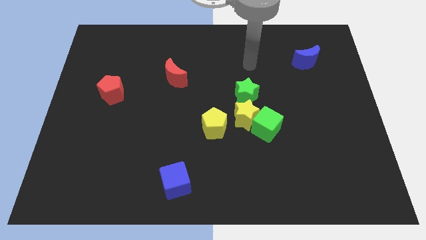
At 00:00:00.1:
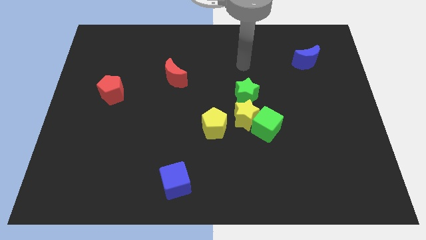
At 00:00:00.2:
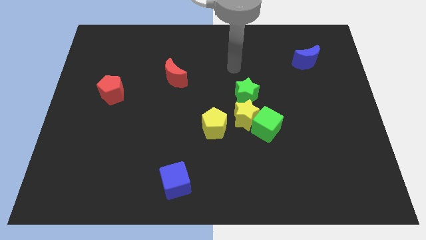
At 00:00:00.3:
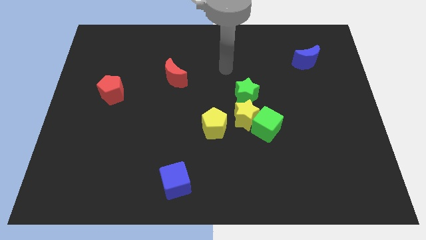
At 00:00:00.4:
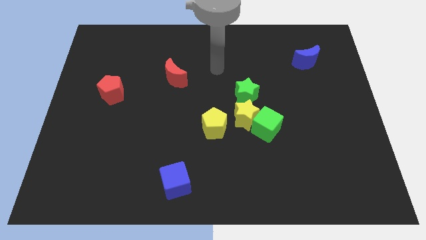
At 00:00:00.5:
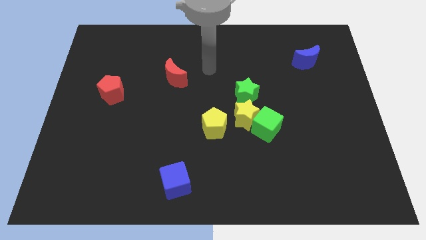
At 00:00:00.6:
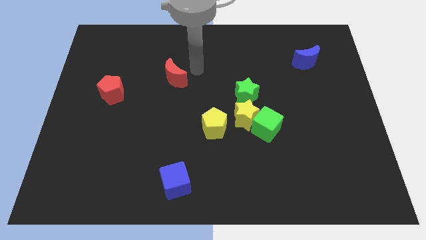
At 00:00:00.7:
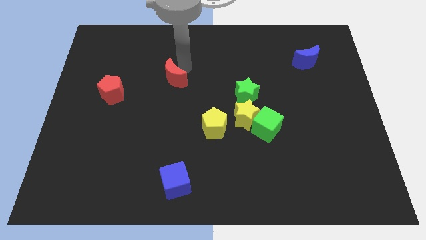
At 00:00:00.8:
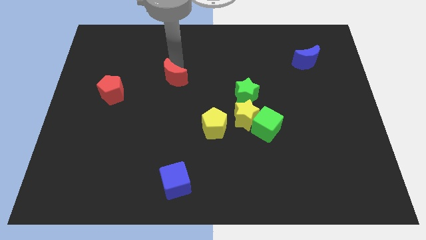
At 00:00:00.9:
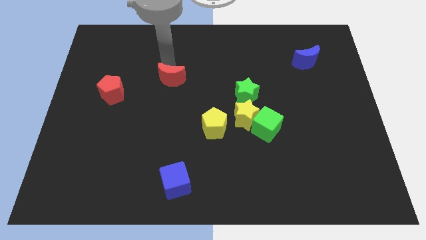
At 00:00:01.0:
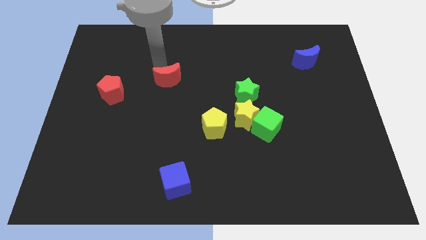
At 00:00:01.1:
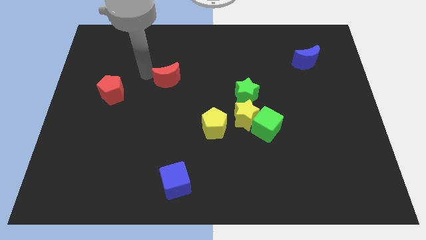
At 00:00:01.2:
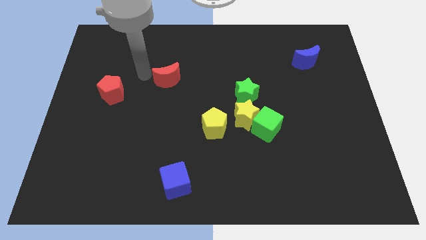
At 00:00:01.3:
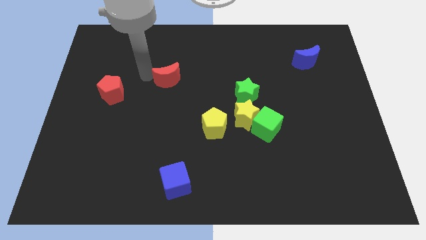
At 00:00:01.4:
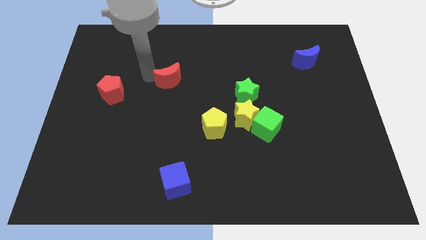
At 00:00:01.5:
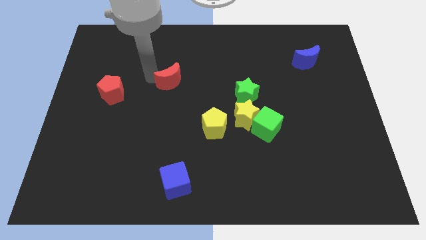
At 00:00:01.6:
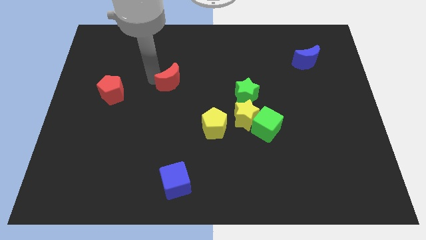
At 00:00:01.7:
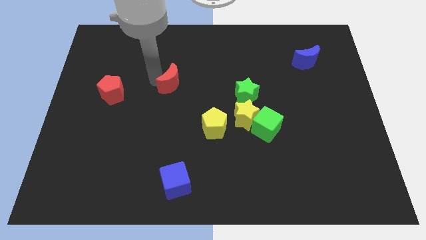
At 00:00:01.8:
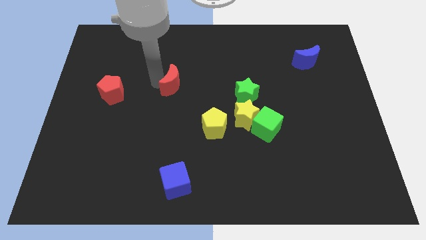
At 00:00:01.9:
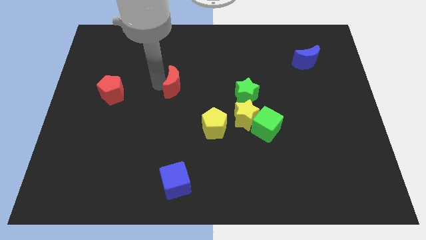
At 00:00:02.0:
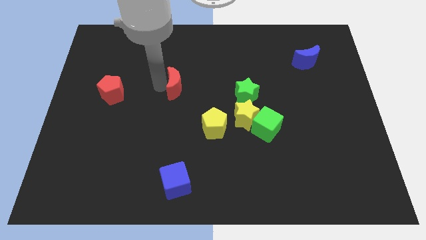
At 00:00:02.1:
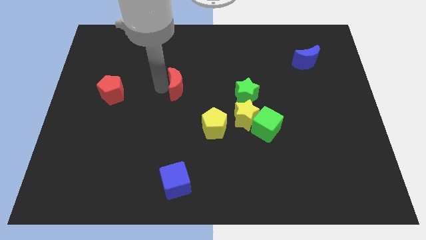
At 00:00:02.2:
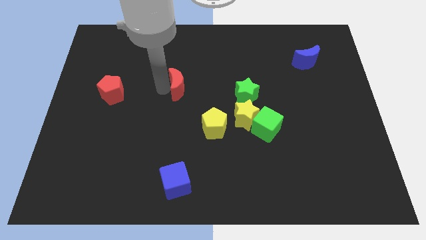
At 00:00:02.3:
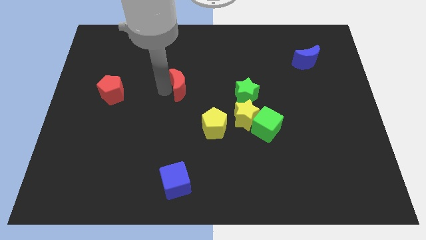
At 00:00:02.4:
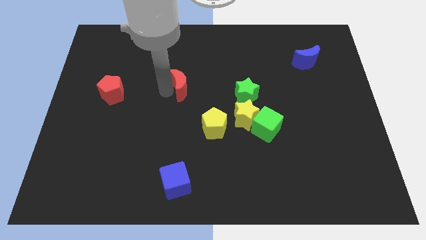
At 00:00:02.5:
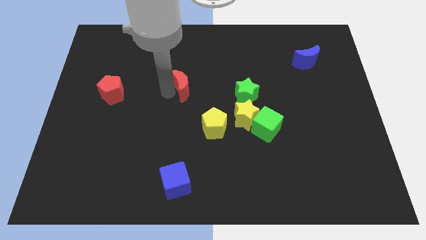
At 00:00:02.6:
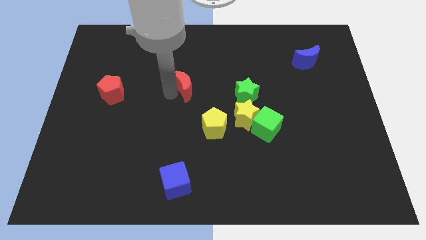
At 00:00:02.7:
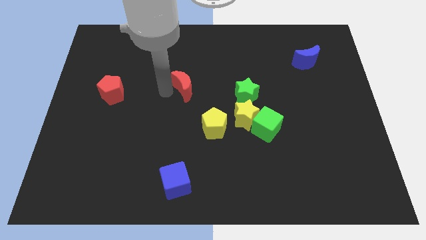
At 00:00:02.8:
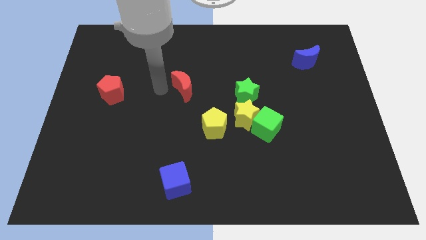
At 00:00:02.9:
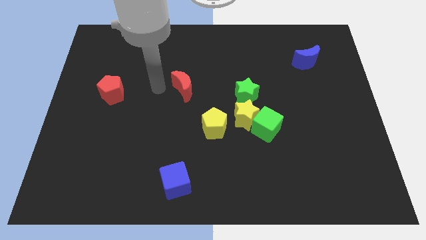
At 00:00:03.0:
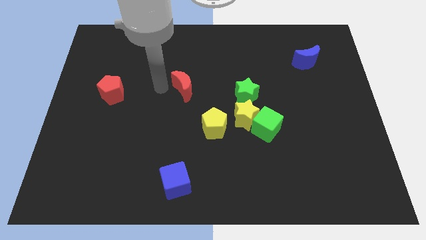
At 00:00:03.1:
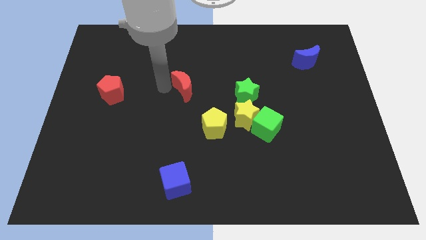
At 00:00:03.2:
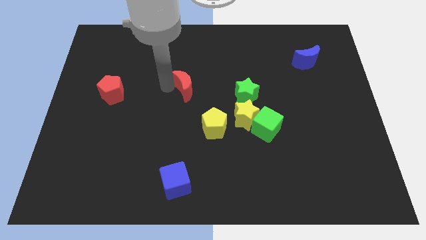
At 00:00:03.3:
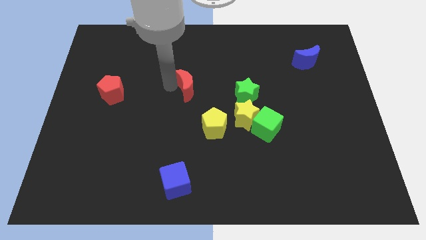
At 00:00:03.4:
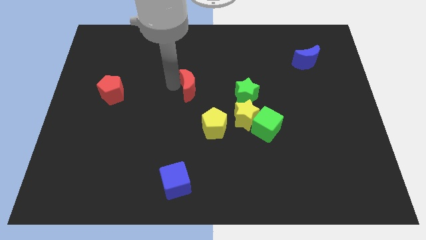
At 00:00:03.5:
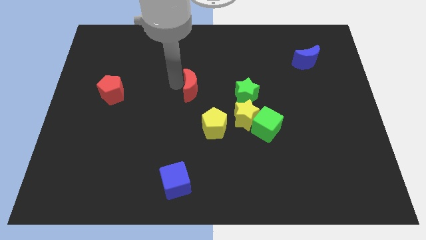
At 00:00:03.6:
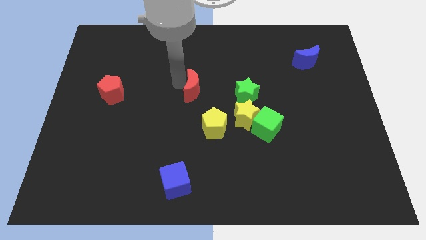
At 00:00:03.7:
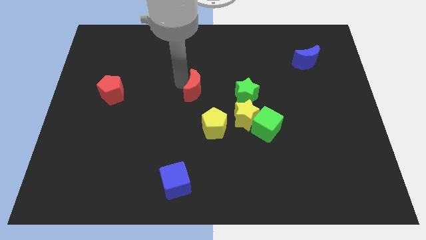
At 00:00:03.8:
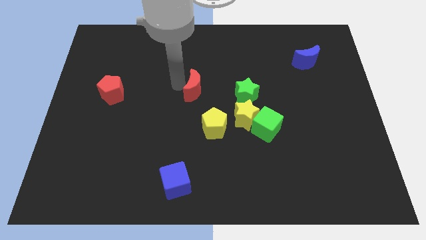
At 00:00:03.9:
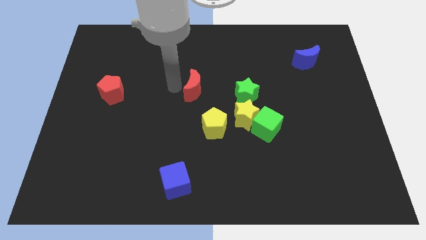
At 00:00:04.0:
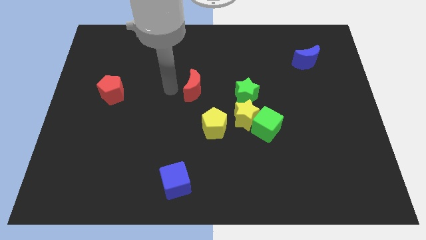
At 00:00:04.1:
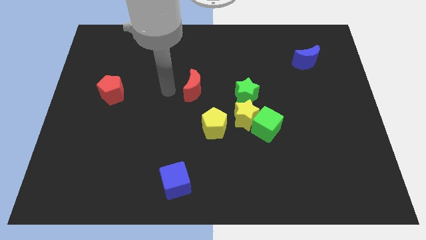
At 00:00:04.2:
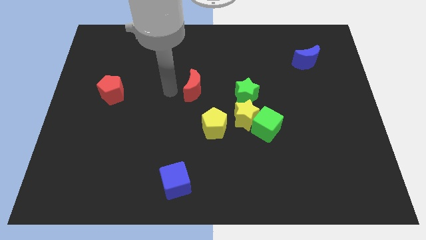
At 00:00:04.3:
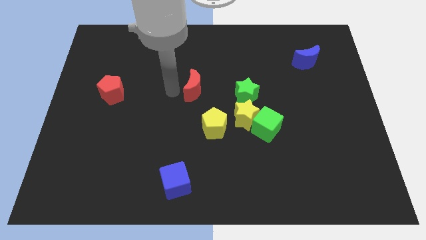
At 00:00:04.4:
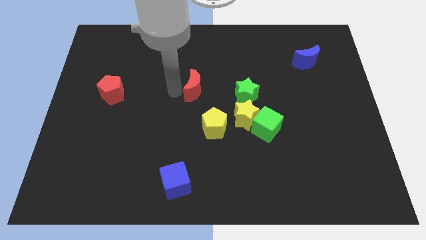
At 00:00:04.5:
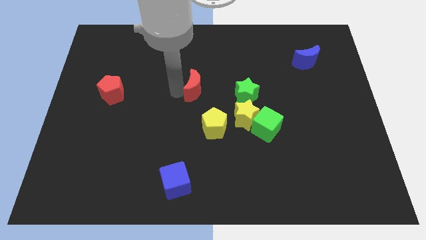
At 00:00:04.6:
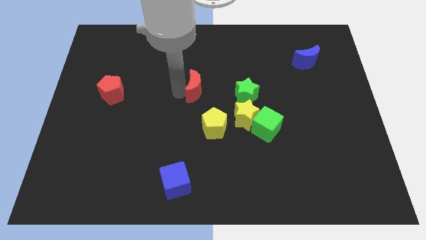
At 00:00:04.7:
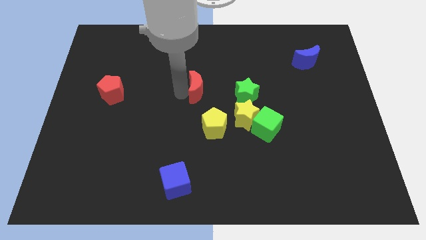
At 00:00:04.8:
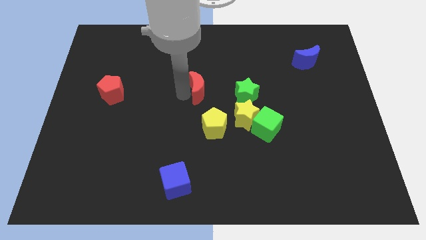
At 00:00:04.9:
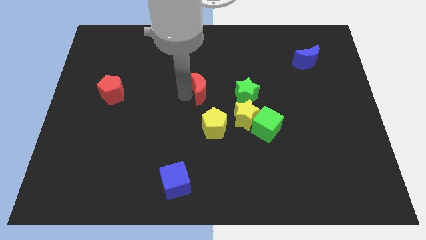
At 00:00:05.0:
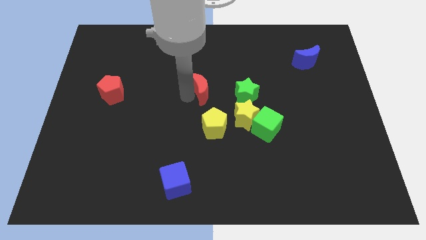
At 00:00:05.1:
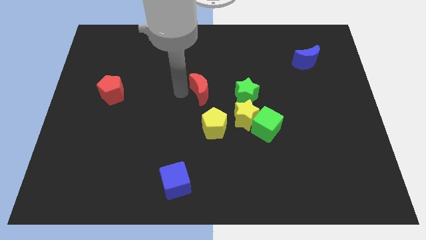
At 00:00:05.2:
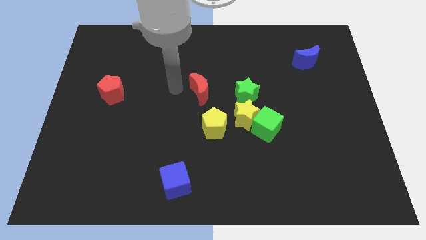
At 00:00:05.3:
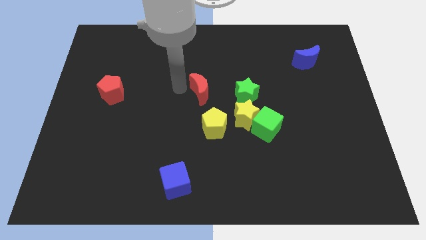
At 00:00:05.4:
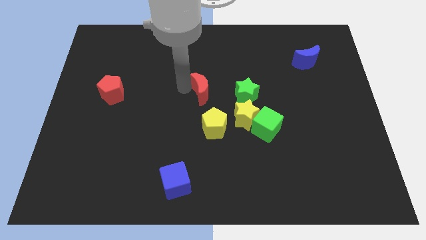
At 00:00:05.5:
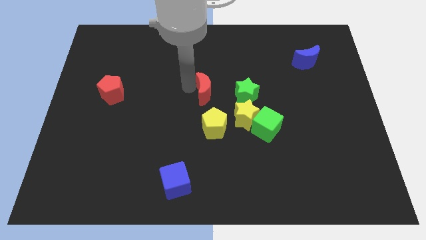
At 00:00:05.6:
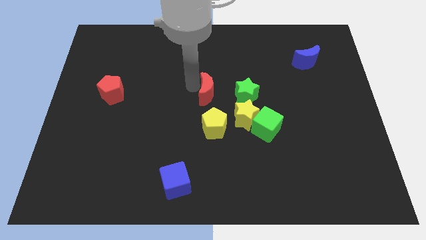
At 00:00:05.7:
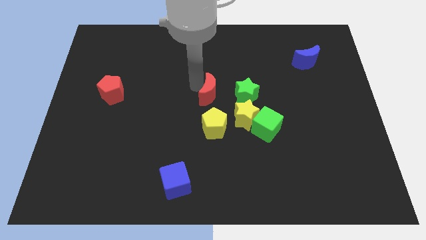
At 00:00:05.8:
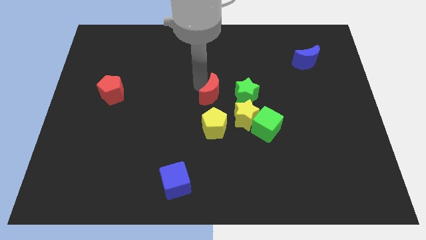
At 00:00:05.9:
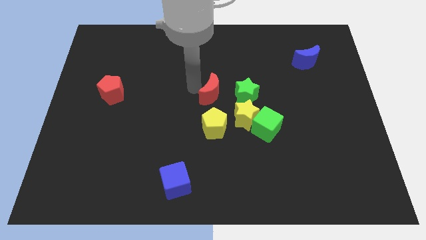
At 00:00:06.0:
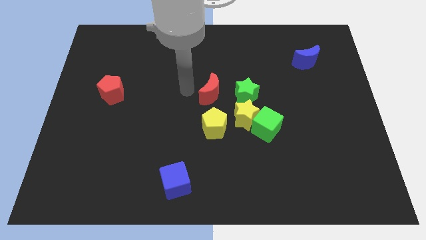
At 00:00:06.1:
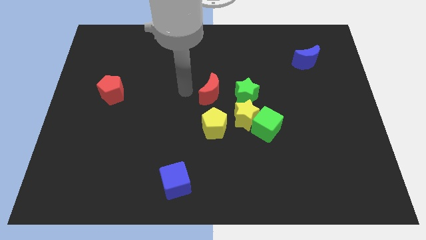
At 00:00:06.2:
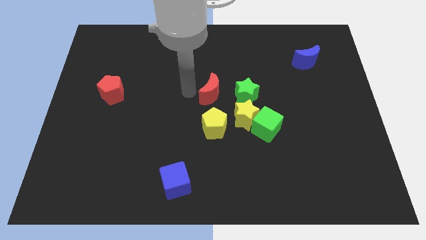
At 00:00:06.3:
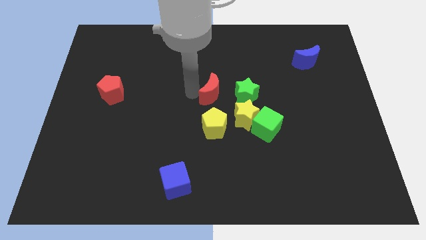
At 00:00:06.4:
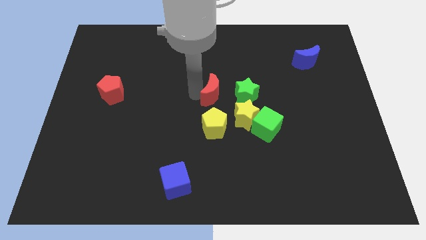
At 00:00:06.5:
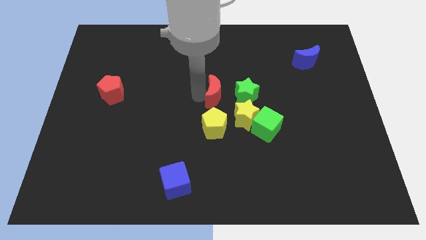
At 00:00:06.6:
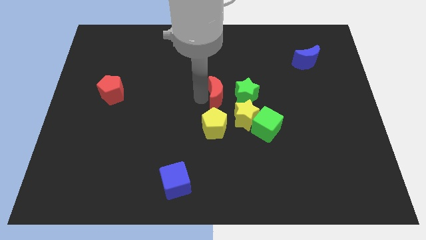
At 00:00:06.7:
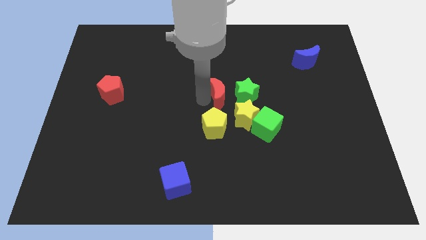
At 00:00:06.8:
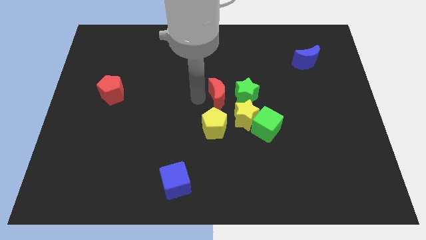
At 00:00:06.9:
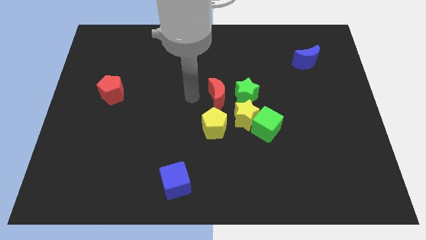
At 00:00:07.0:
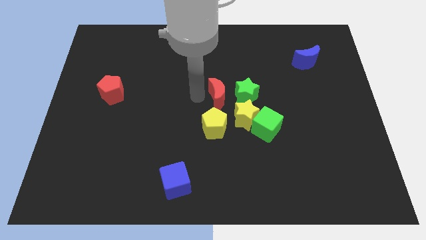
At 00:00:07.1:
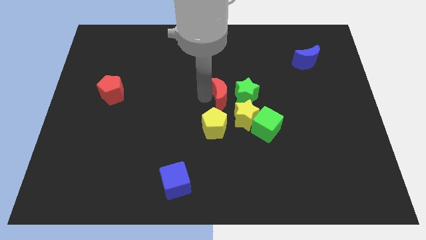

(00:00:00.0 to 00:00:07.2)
push the red moon to the green star
